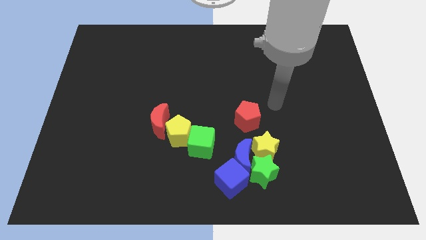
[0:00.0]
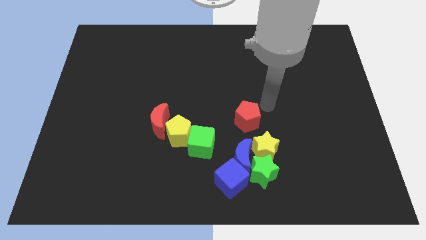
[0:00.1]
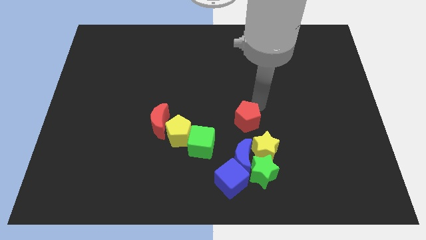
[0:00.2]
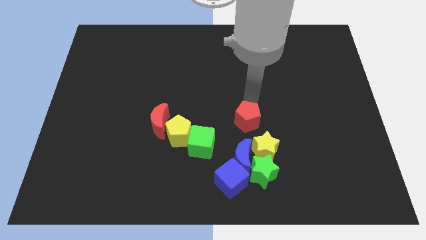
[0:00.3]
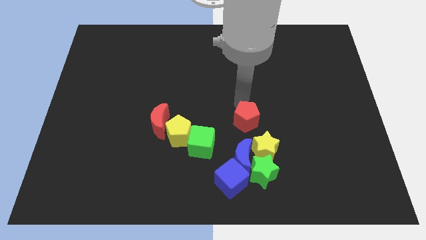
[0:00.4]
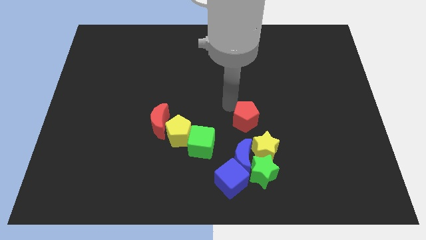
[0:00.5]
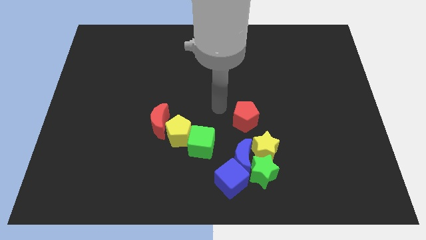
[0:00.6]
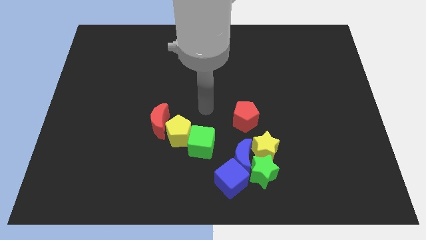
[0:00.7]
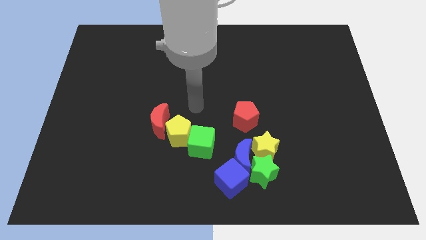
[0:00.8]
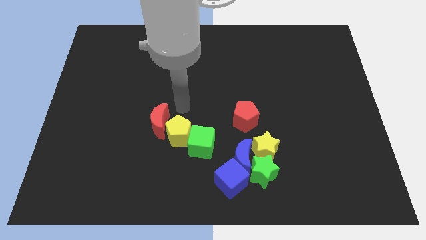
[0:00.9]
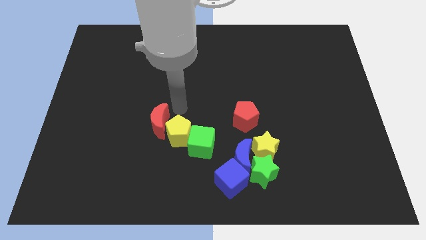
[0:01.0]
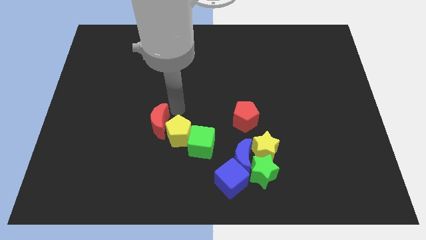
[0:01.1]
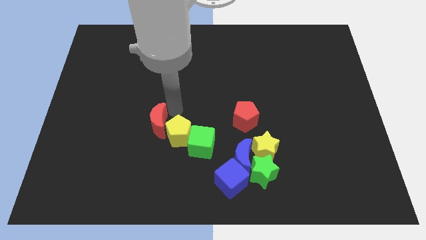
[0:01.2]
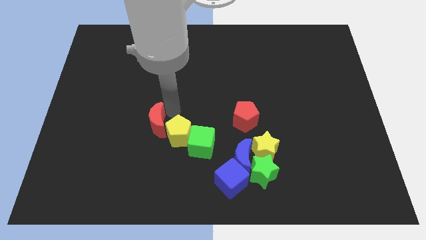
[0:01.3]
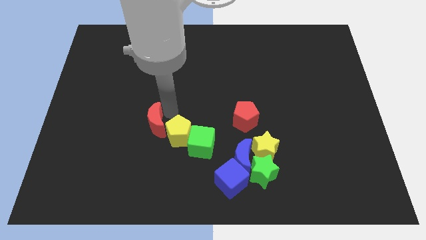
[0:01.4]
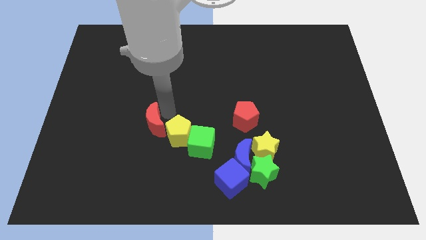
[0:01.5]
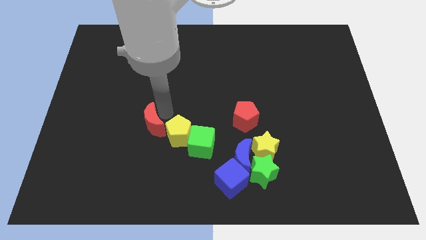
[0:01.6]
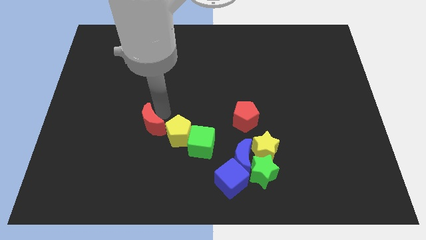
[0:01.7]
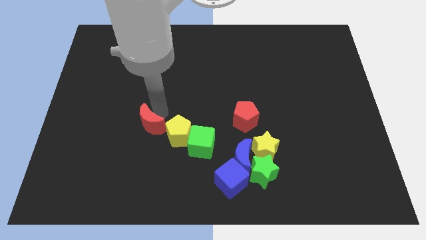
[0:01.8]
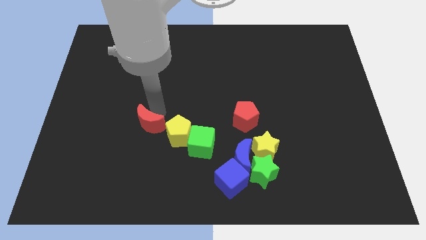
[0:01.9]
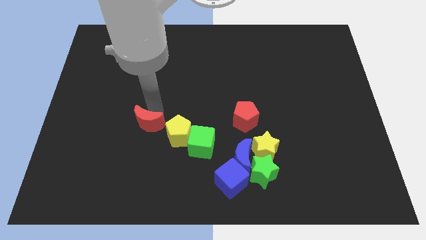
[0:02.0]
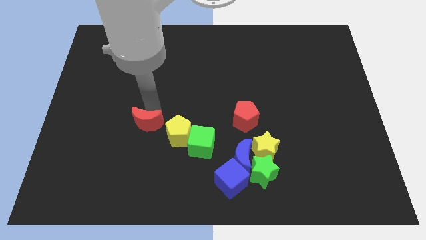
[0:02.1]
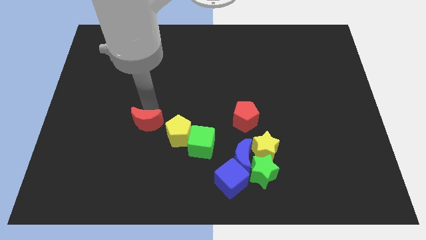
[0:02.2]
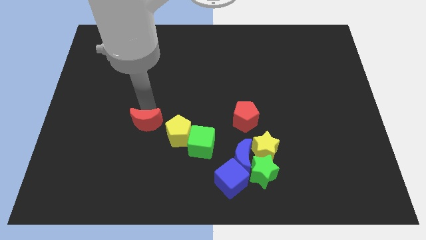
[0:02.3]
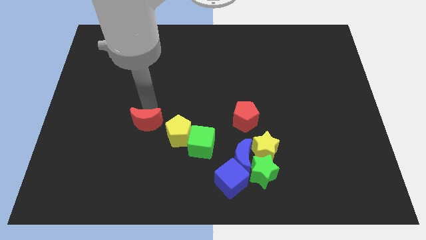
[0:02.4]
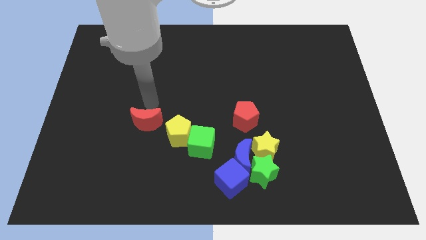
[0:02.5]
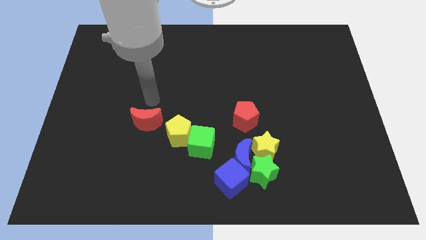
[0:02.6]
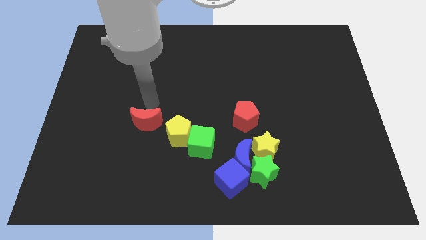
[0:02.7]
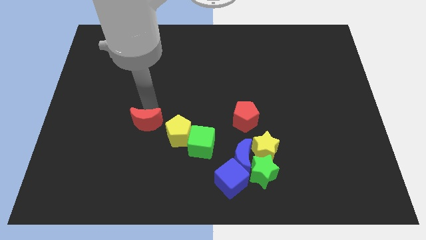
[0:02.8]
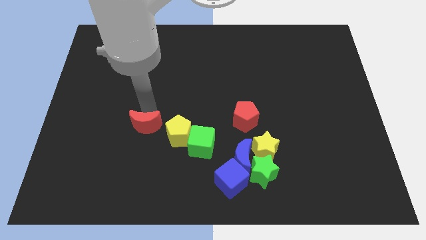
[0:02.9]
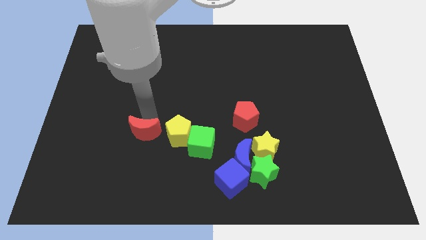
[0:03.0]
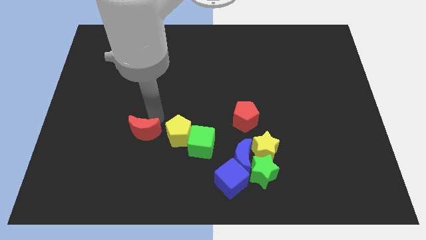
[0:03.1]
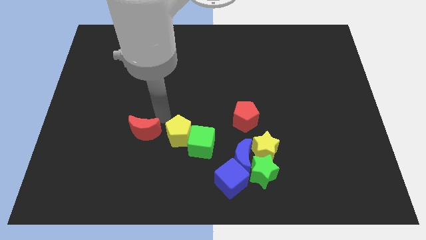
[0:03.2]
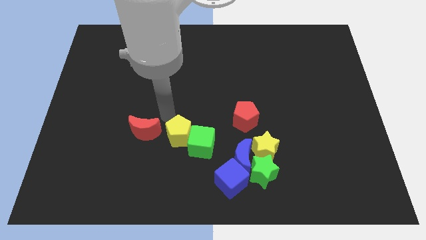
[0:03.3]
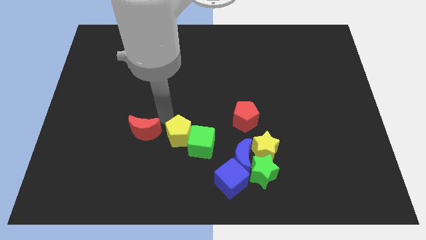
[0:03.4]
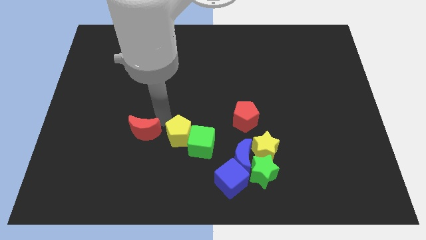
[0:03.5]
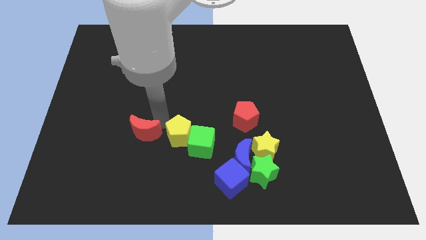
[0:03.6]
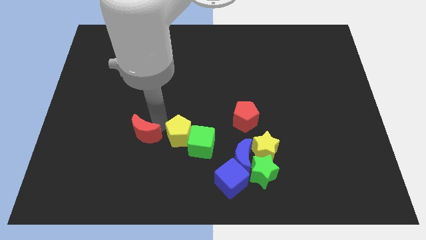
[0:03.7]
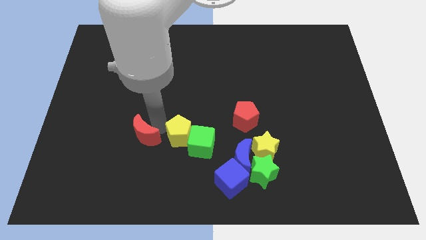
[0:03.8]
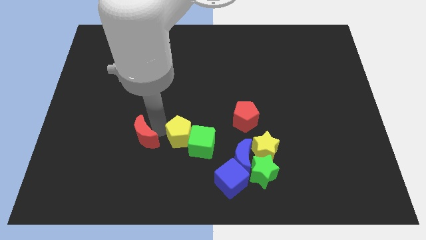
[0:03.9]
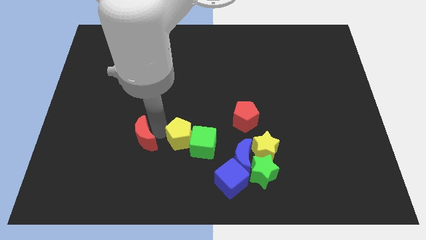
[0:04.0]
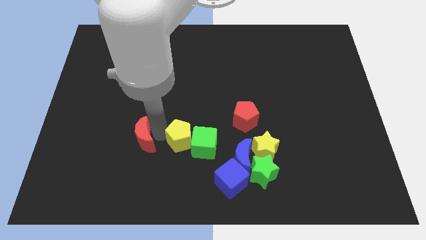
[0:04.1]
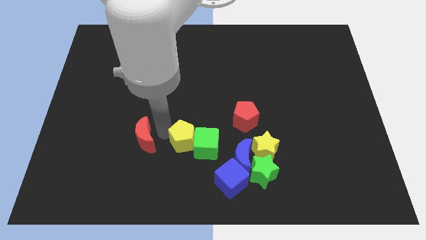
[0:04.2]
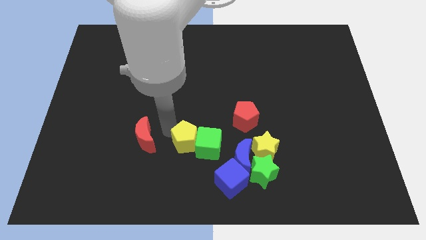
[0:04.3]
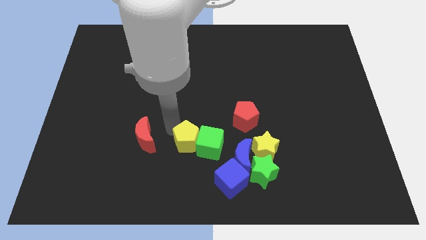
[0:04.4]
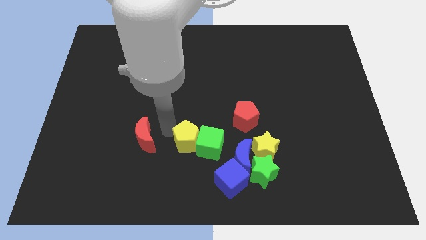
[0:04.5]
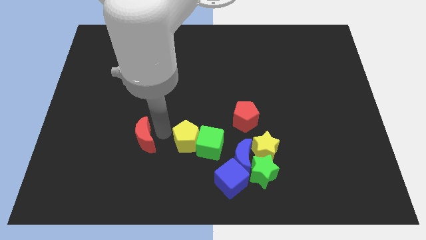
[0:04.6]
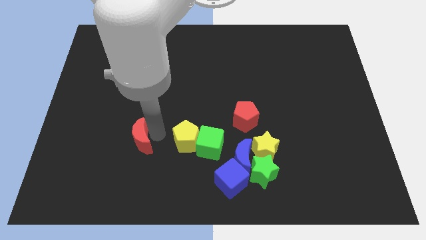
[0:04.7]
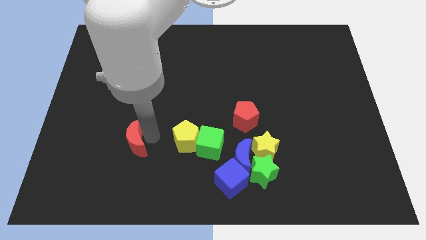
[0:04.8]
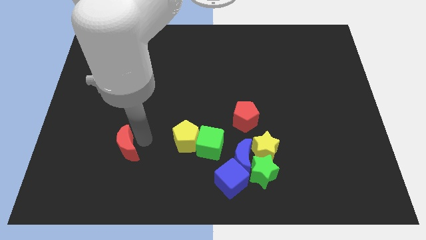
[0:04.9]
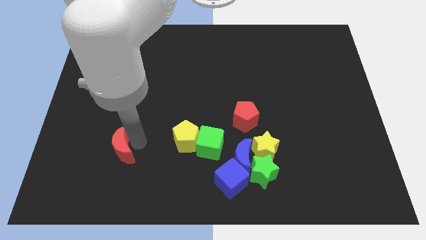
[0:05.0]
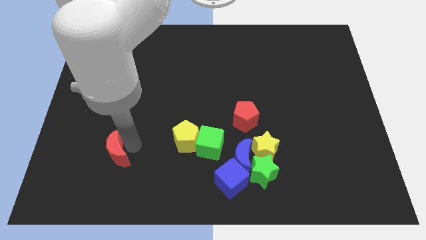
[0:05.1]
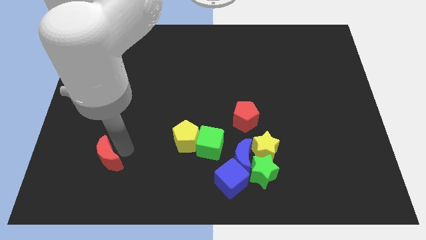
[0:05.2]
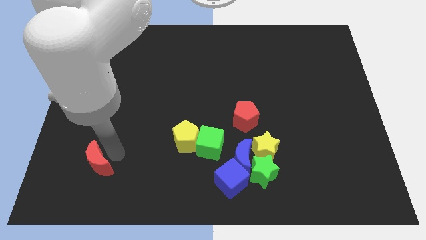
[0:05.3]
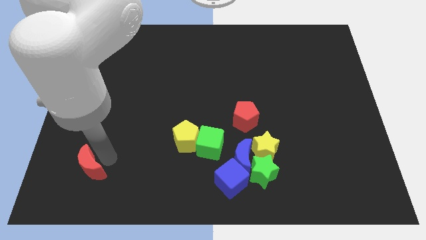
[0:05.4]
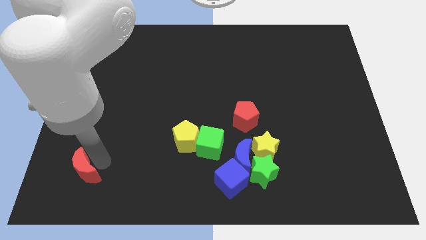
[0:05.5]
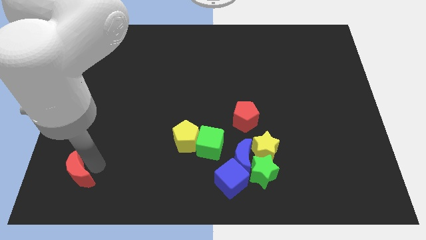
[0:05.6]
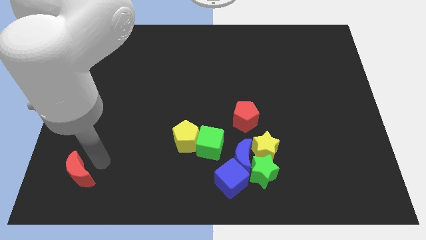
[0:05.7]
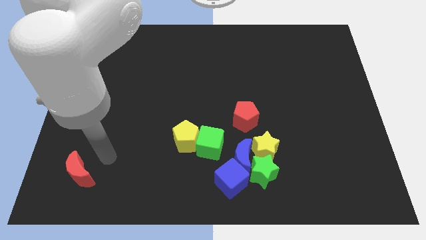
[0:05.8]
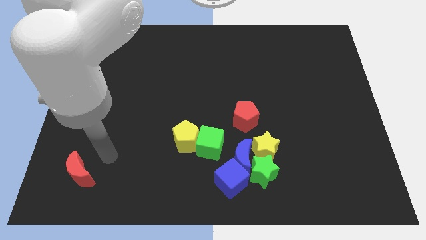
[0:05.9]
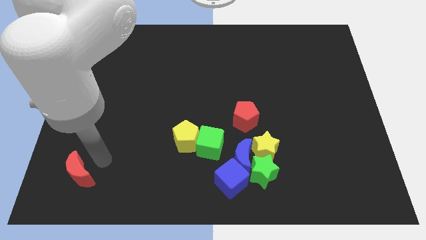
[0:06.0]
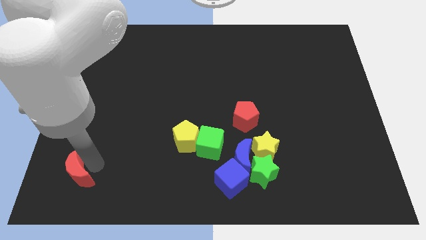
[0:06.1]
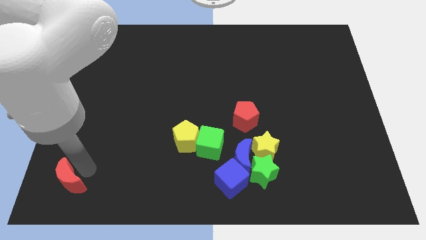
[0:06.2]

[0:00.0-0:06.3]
slide the red moon to the lower left corner
